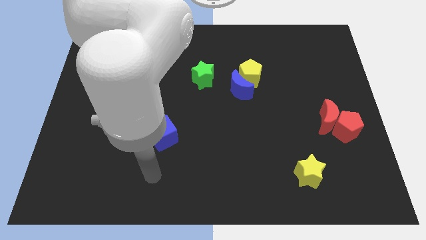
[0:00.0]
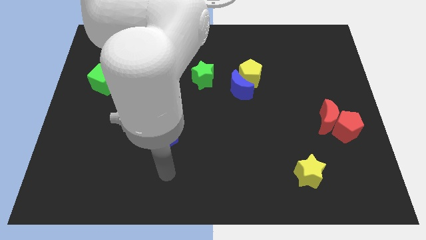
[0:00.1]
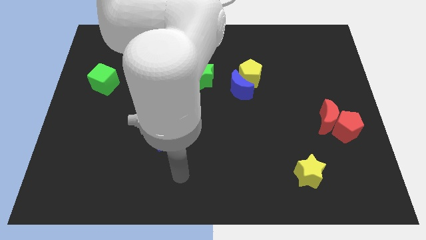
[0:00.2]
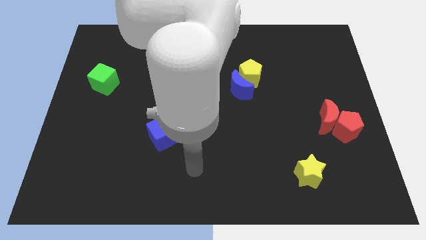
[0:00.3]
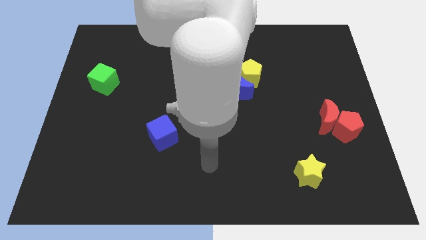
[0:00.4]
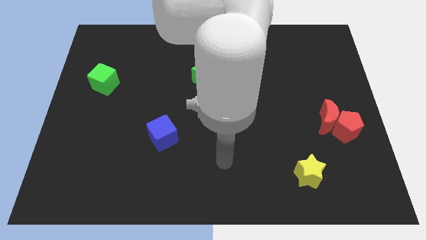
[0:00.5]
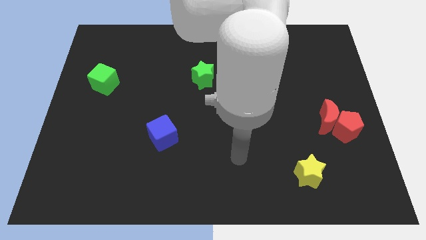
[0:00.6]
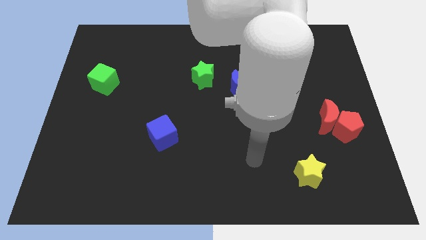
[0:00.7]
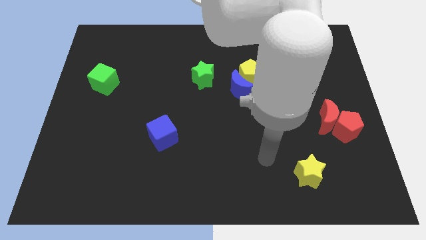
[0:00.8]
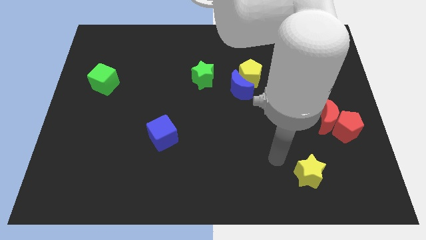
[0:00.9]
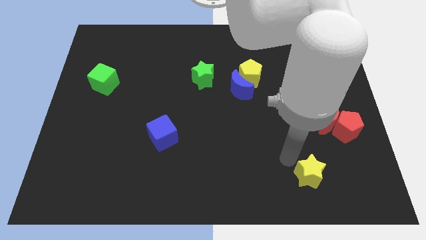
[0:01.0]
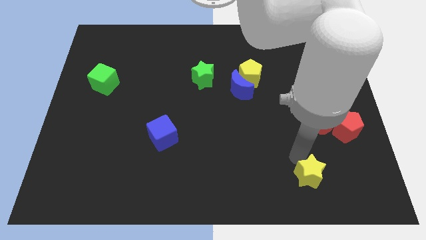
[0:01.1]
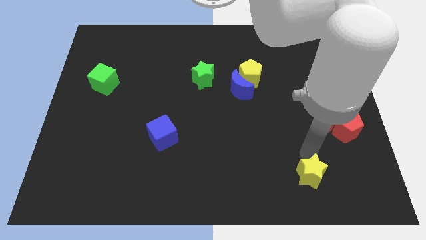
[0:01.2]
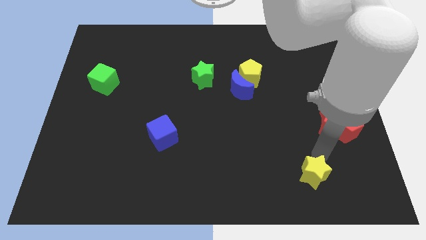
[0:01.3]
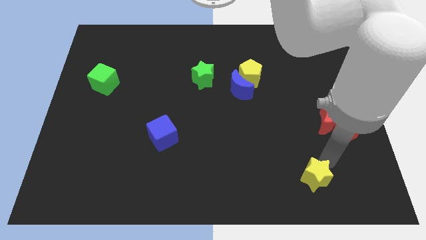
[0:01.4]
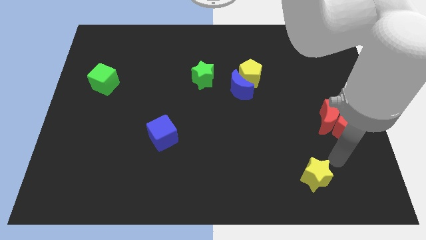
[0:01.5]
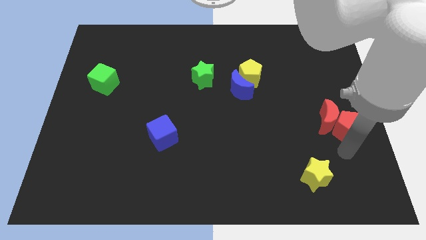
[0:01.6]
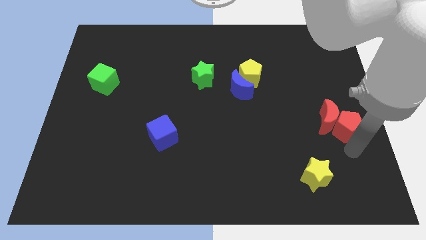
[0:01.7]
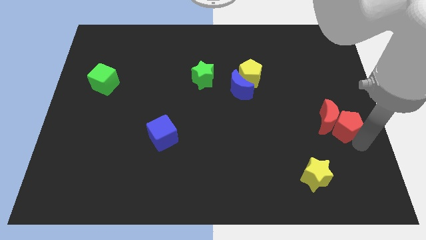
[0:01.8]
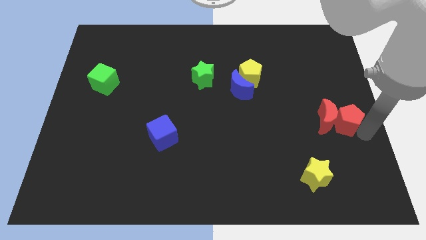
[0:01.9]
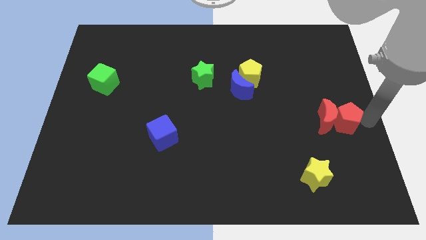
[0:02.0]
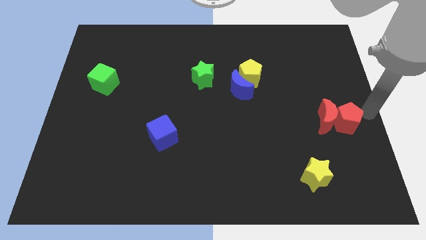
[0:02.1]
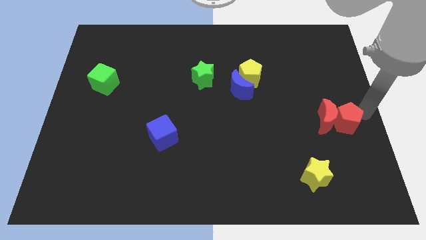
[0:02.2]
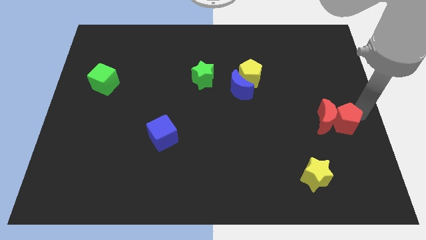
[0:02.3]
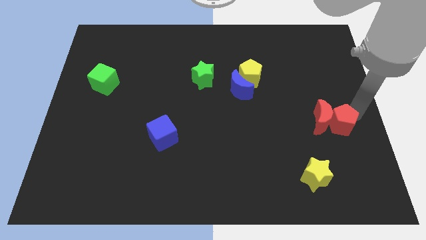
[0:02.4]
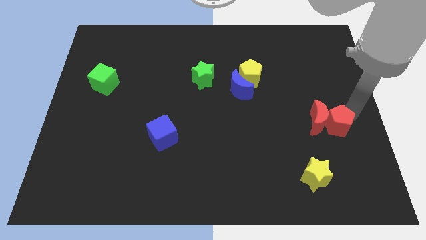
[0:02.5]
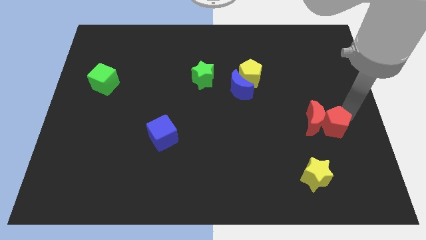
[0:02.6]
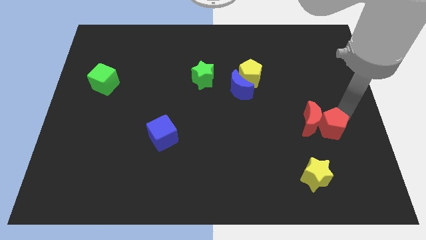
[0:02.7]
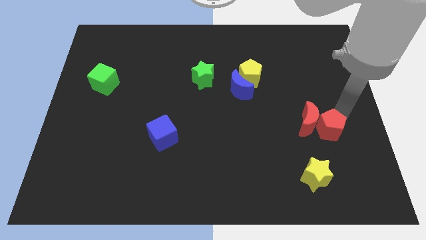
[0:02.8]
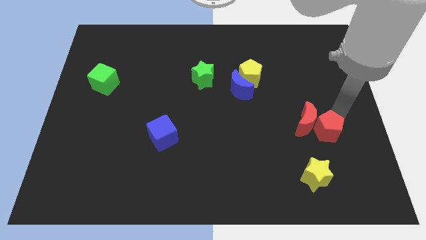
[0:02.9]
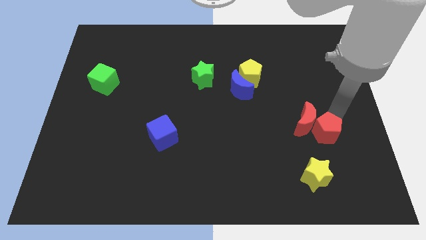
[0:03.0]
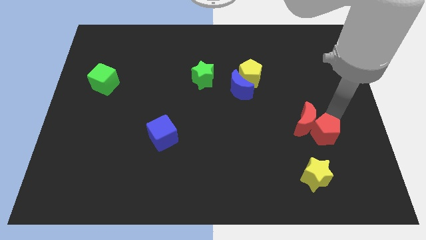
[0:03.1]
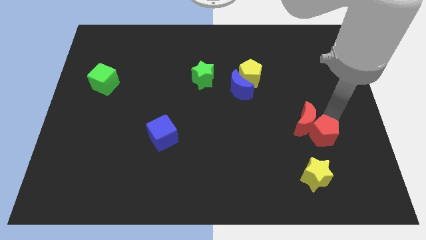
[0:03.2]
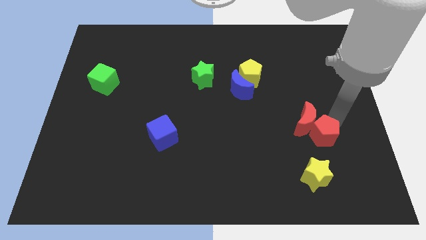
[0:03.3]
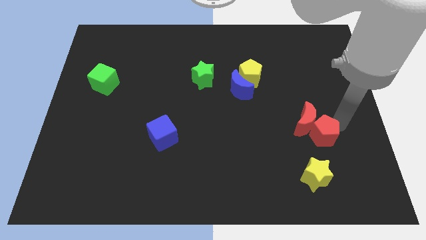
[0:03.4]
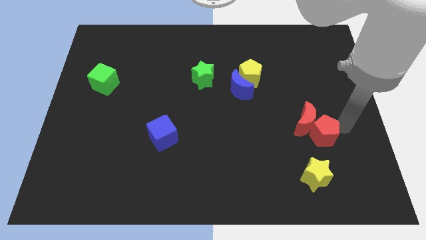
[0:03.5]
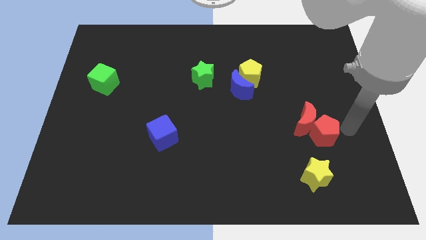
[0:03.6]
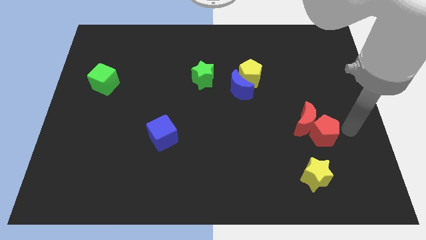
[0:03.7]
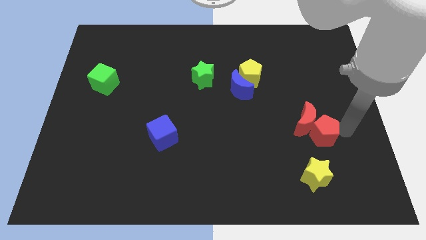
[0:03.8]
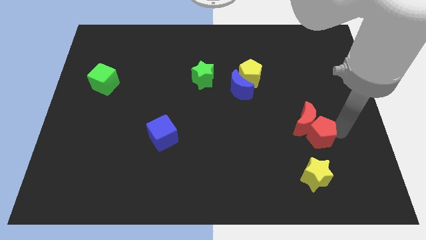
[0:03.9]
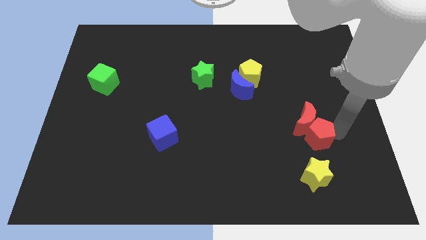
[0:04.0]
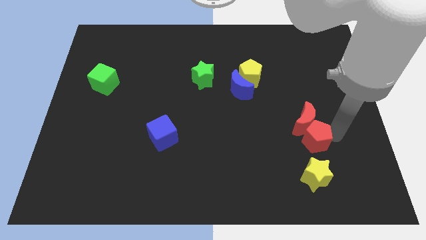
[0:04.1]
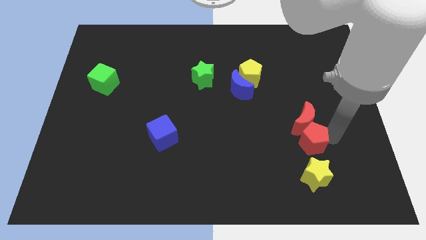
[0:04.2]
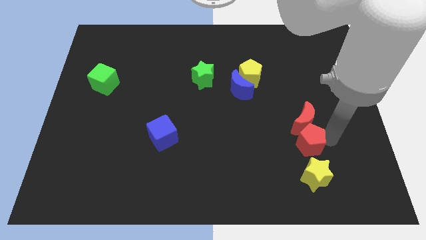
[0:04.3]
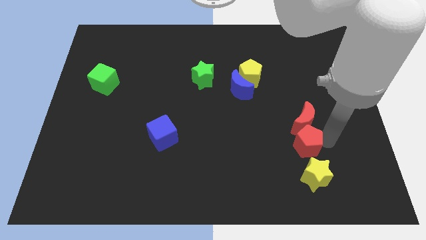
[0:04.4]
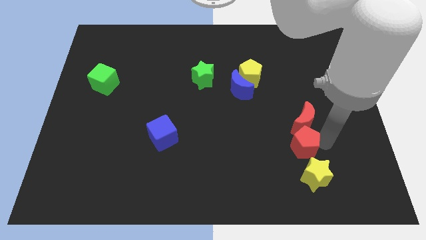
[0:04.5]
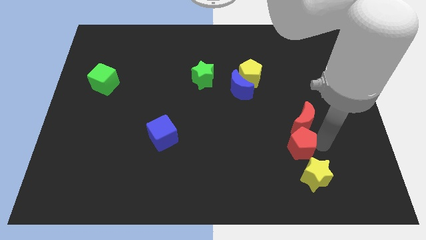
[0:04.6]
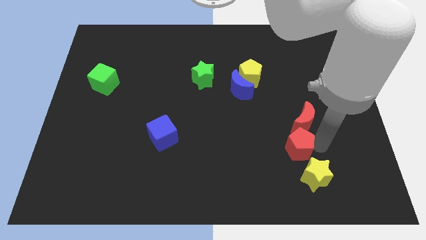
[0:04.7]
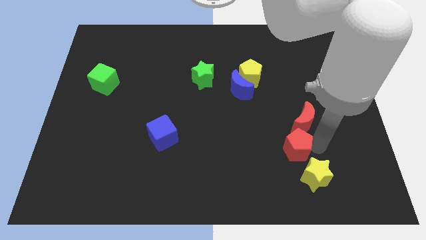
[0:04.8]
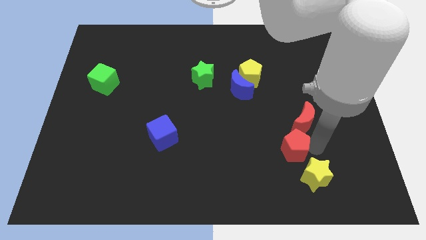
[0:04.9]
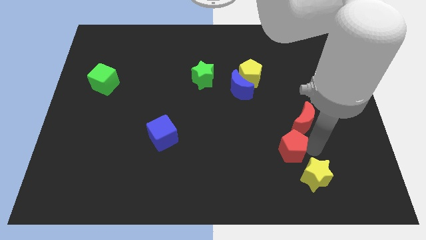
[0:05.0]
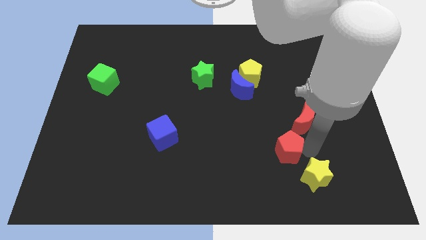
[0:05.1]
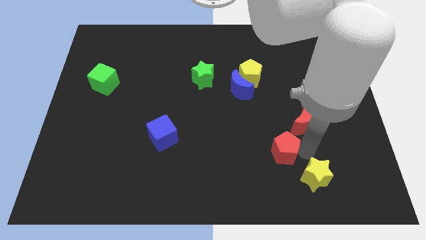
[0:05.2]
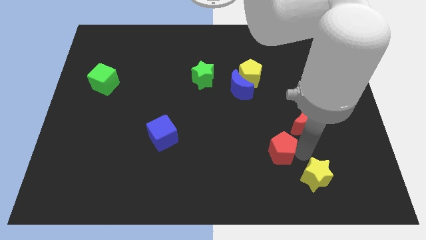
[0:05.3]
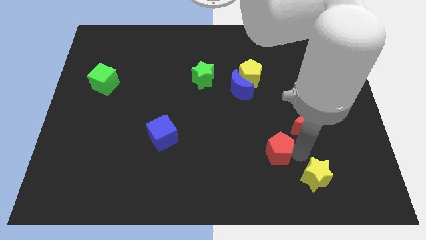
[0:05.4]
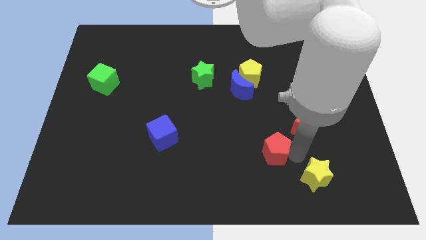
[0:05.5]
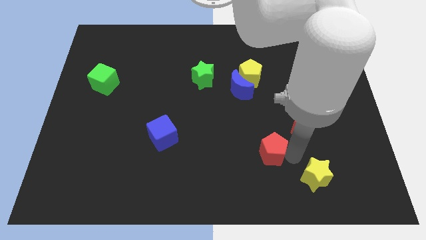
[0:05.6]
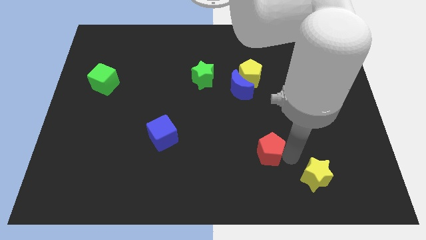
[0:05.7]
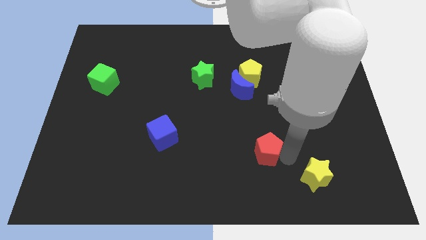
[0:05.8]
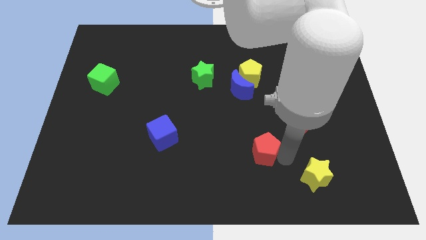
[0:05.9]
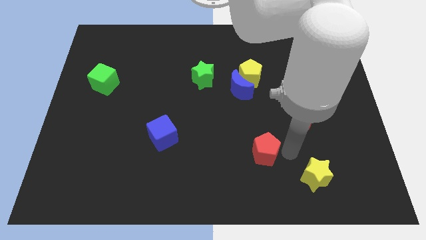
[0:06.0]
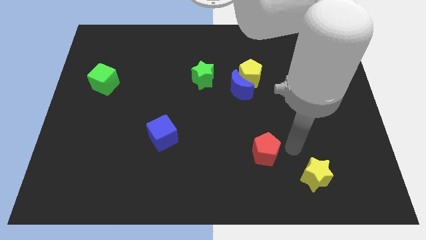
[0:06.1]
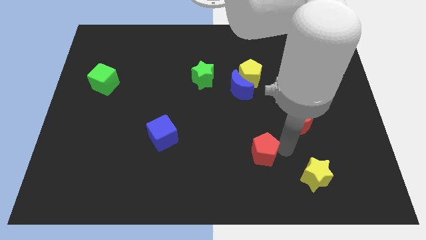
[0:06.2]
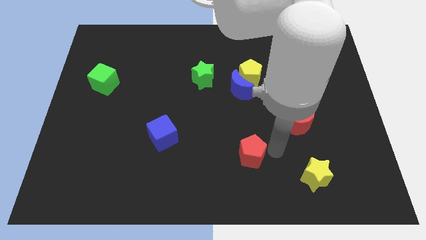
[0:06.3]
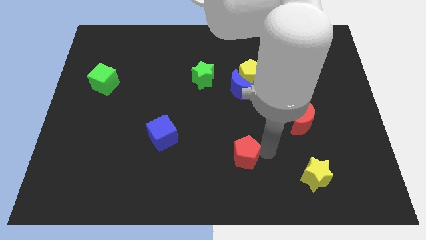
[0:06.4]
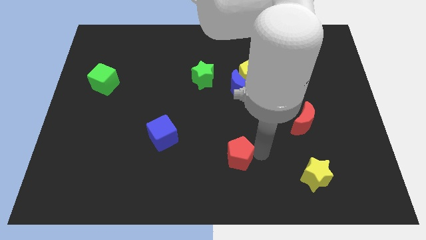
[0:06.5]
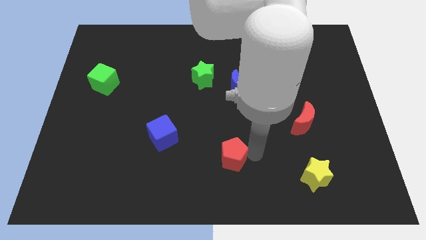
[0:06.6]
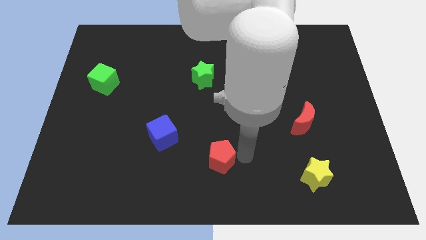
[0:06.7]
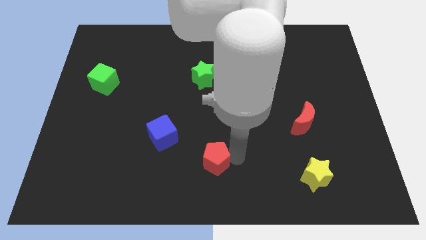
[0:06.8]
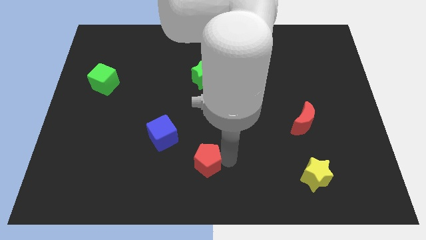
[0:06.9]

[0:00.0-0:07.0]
put the red pentagon to the bottom right of the blue cube

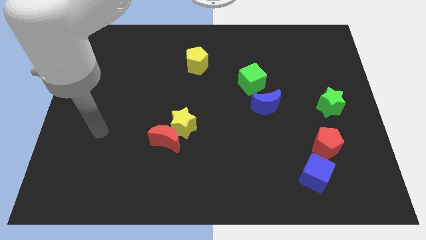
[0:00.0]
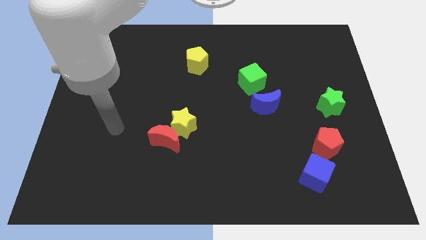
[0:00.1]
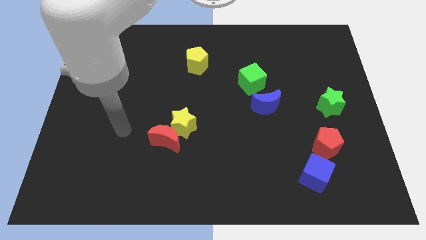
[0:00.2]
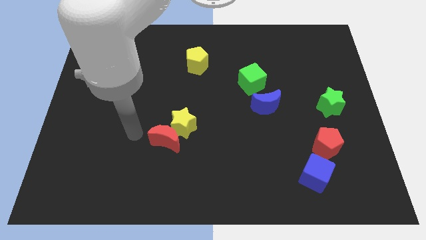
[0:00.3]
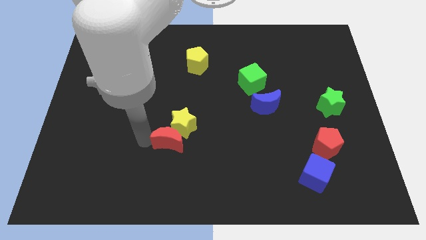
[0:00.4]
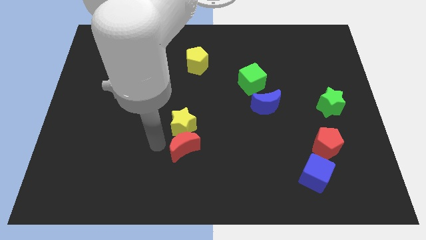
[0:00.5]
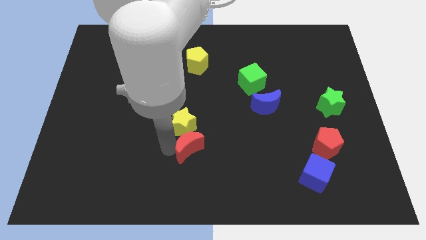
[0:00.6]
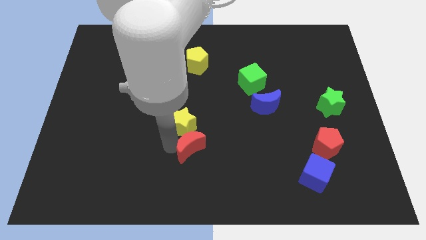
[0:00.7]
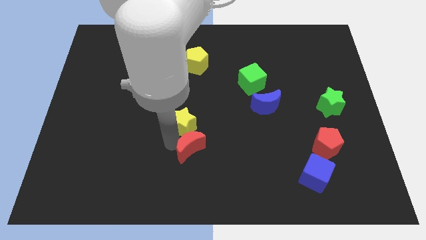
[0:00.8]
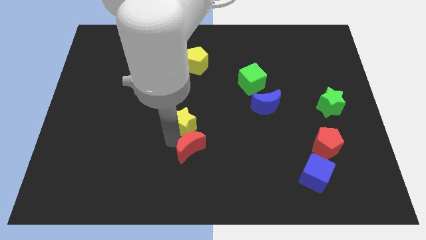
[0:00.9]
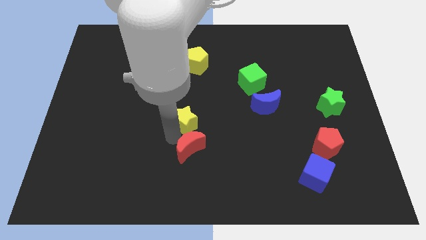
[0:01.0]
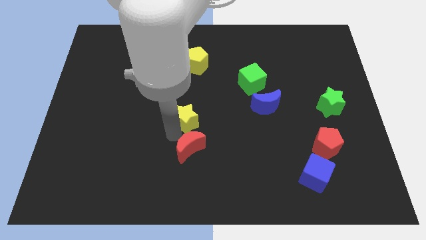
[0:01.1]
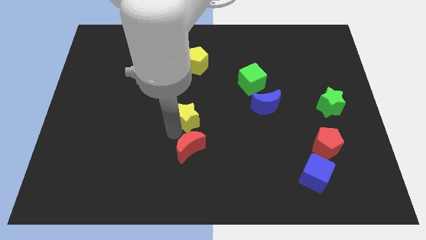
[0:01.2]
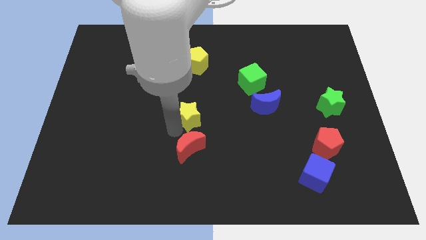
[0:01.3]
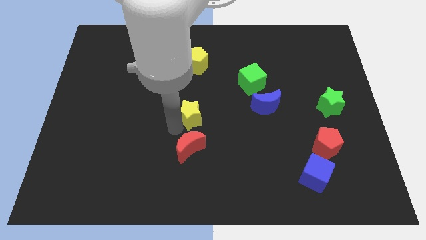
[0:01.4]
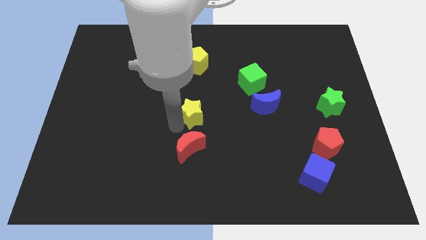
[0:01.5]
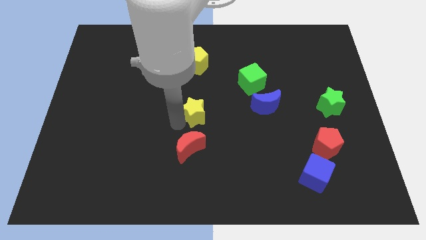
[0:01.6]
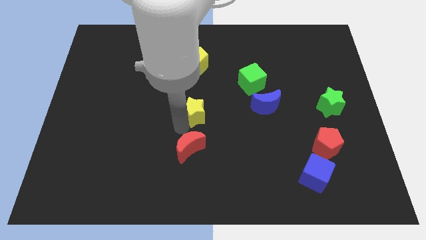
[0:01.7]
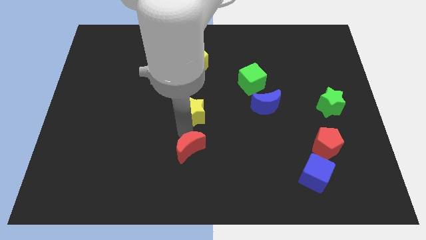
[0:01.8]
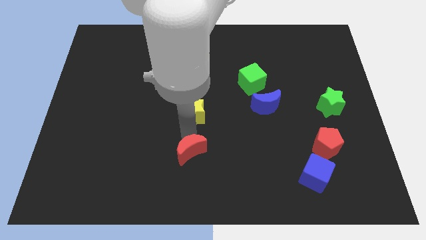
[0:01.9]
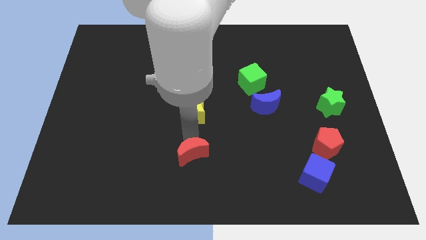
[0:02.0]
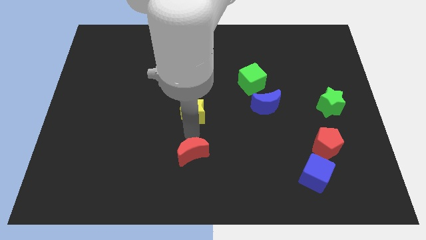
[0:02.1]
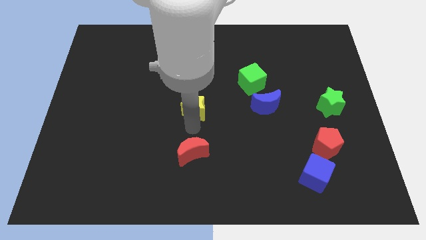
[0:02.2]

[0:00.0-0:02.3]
push the yellow star to the bottom side of the yellow pentagon
